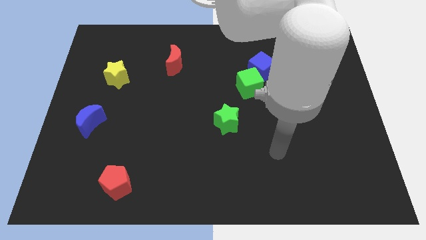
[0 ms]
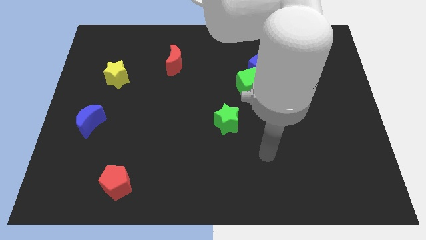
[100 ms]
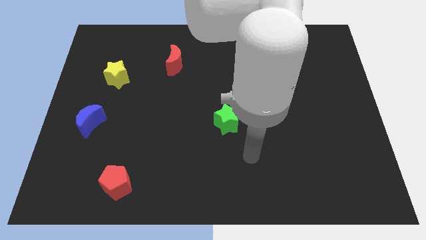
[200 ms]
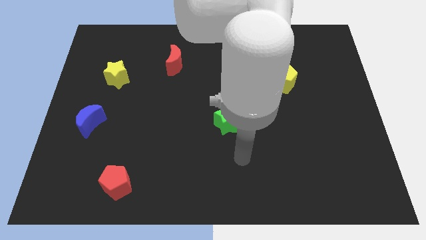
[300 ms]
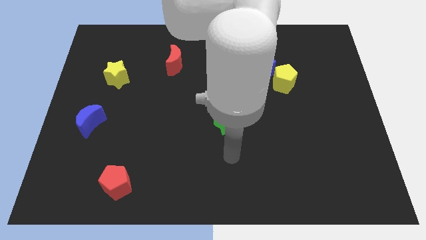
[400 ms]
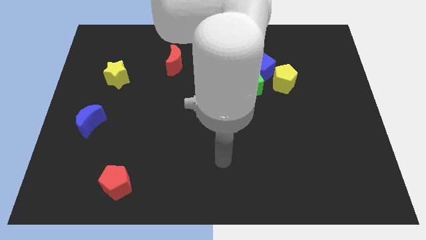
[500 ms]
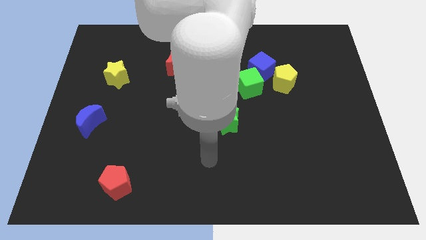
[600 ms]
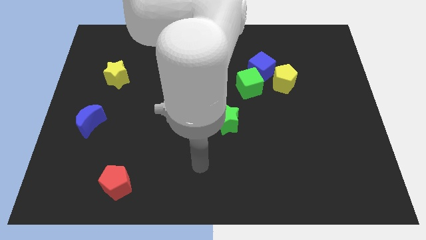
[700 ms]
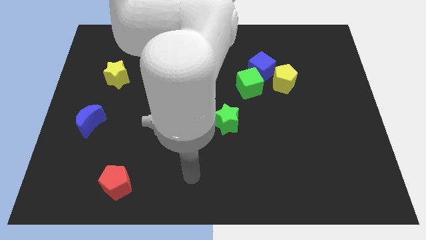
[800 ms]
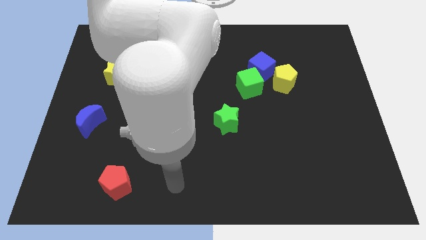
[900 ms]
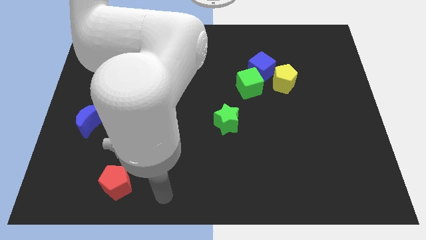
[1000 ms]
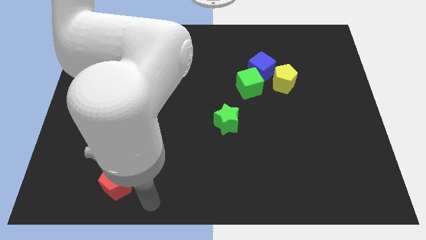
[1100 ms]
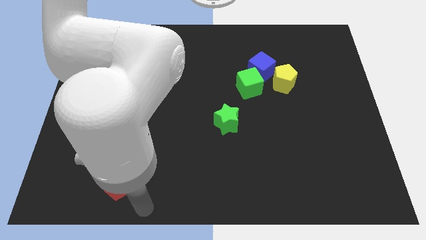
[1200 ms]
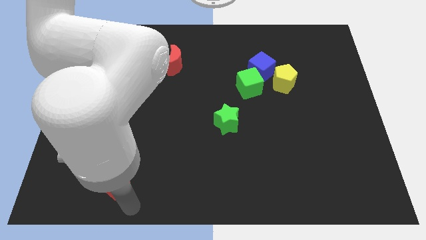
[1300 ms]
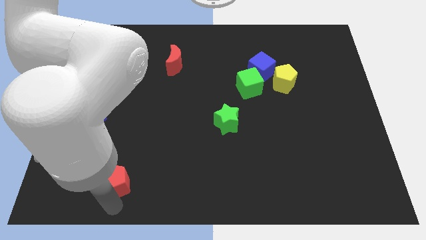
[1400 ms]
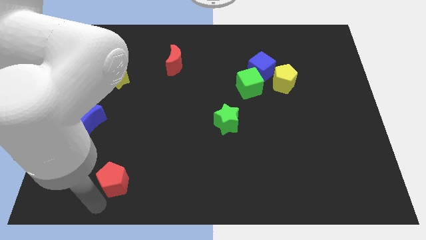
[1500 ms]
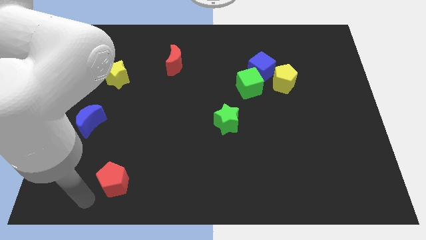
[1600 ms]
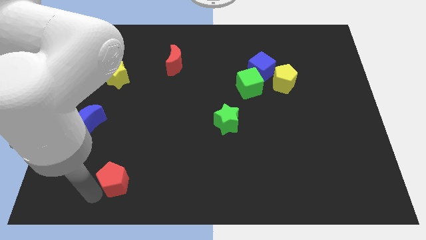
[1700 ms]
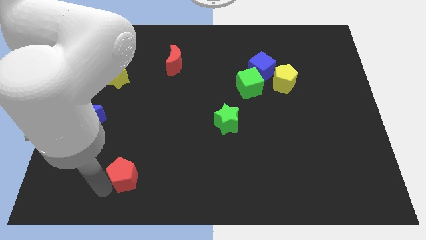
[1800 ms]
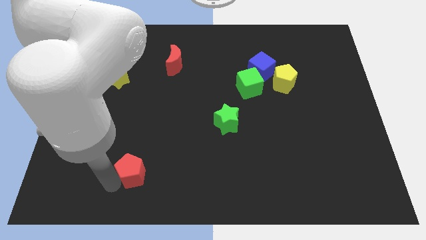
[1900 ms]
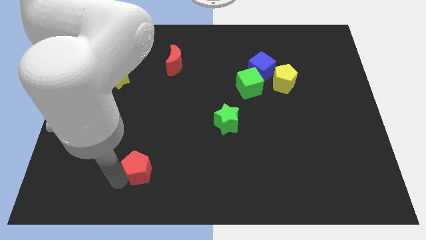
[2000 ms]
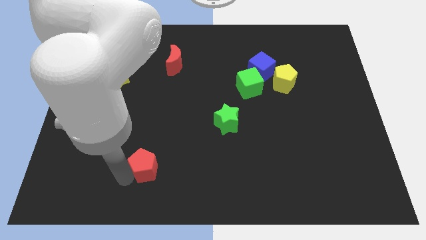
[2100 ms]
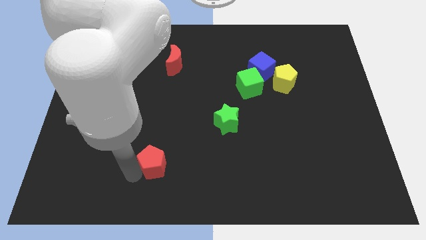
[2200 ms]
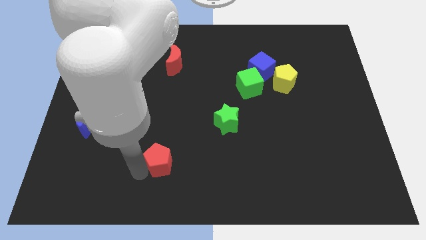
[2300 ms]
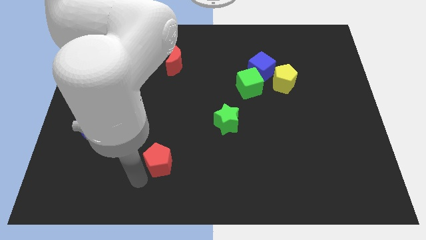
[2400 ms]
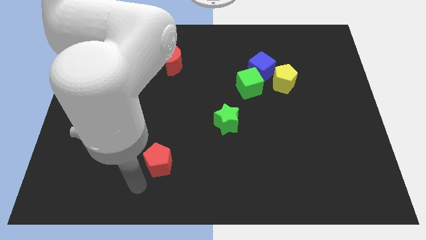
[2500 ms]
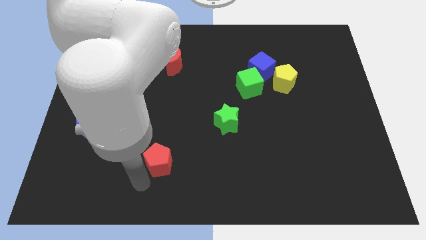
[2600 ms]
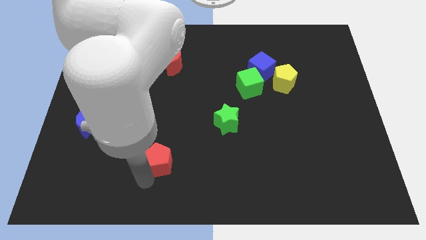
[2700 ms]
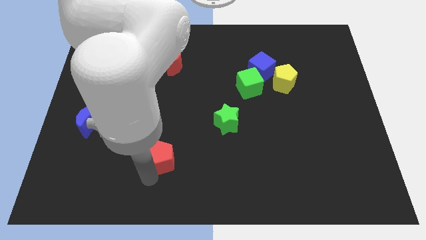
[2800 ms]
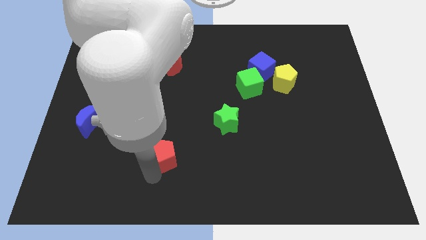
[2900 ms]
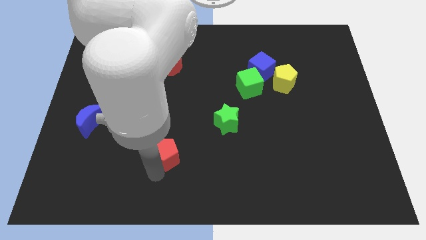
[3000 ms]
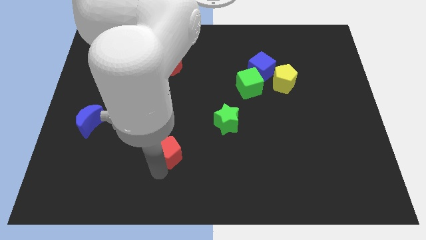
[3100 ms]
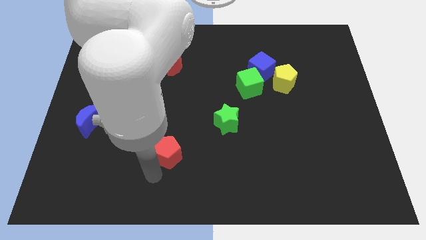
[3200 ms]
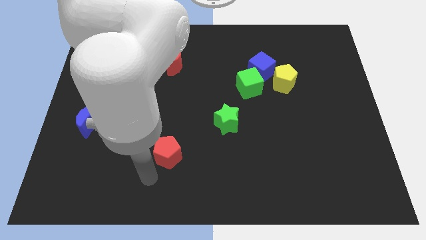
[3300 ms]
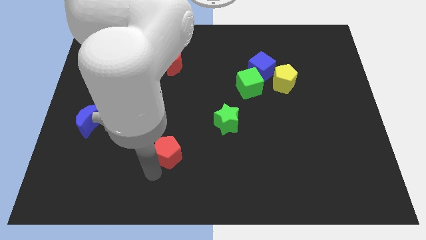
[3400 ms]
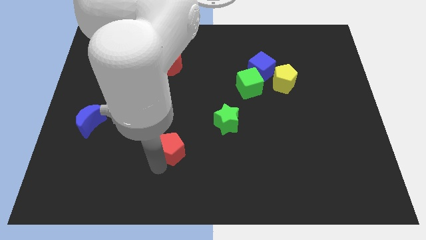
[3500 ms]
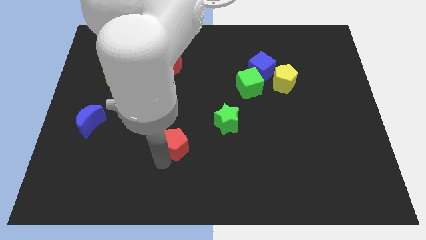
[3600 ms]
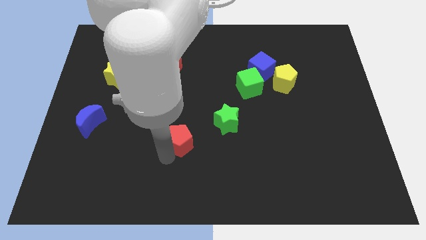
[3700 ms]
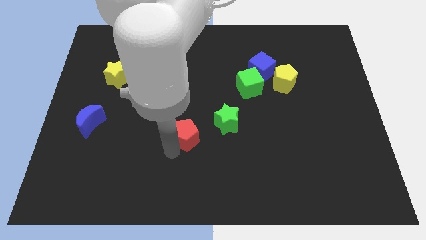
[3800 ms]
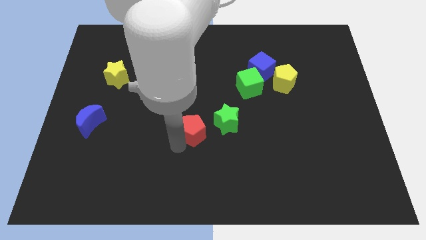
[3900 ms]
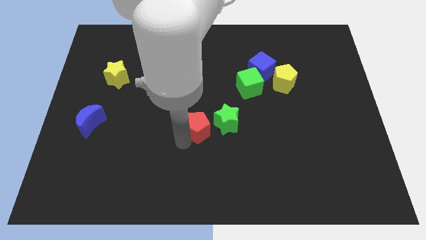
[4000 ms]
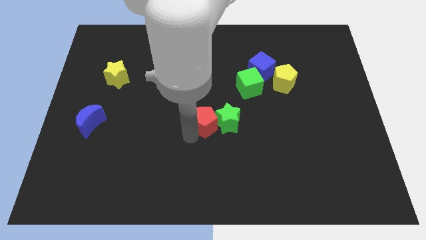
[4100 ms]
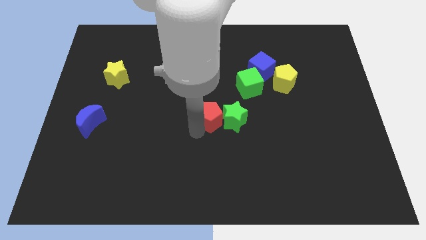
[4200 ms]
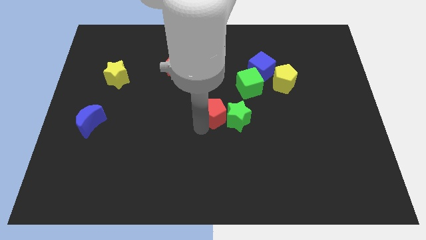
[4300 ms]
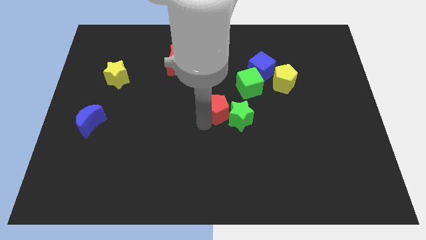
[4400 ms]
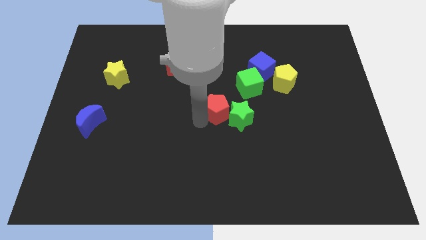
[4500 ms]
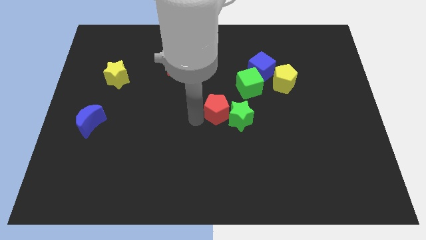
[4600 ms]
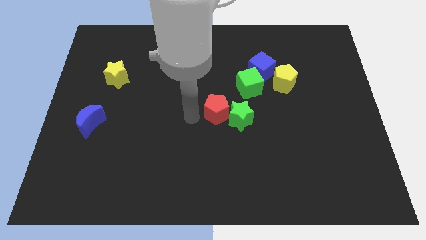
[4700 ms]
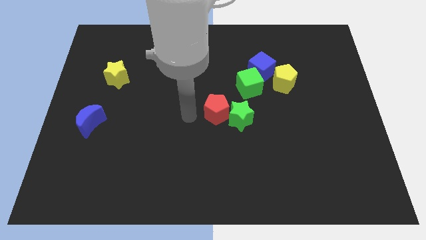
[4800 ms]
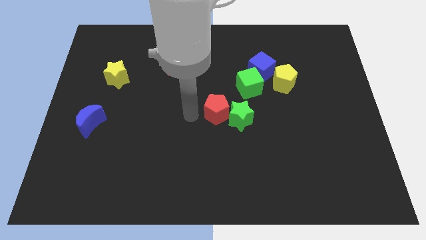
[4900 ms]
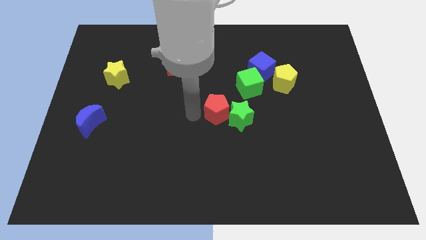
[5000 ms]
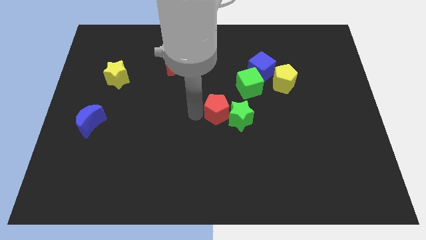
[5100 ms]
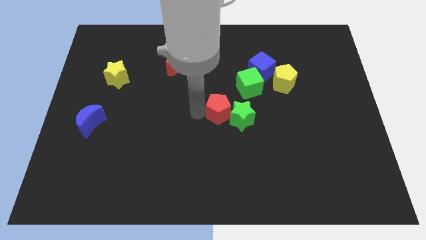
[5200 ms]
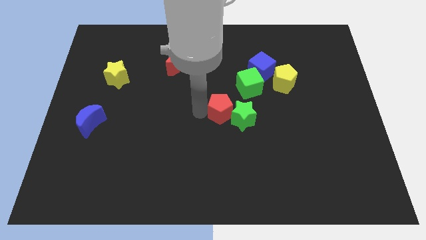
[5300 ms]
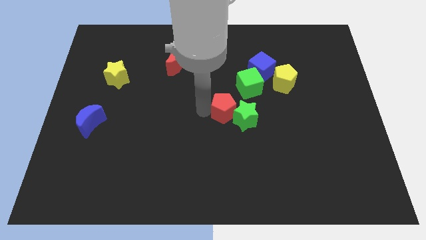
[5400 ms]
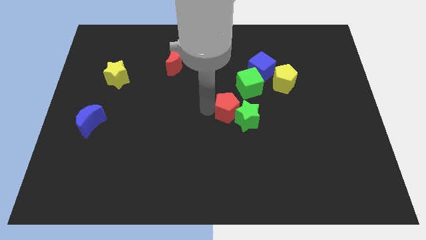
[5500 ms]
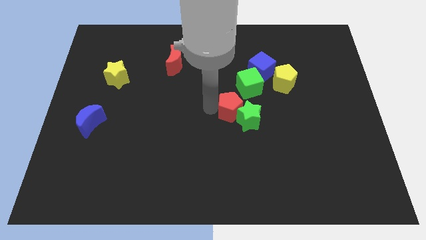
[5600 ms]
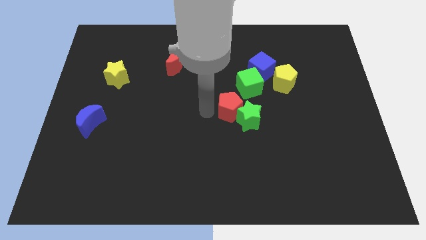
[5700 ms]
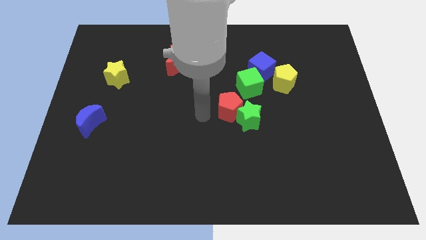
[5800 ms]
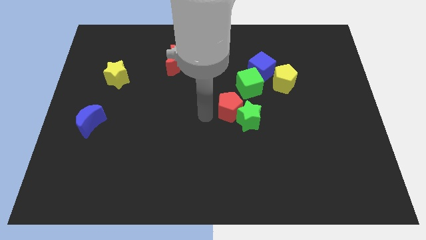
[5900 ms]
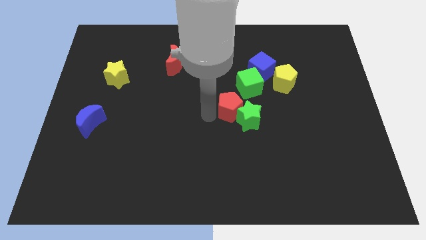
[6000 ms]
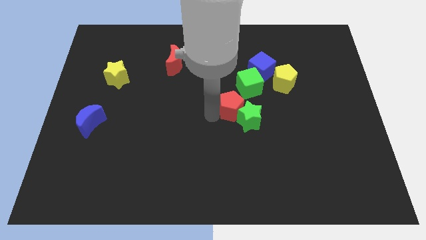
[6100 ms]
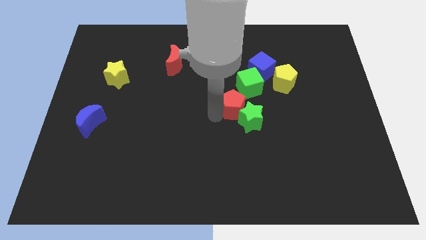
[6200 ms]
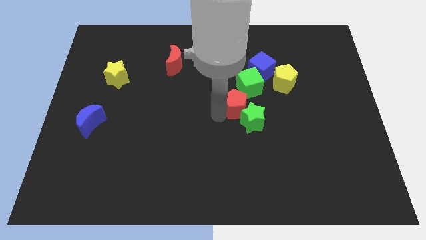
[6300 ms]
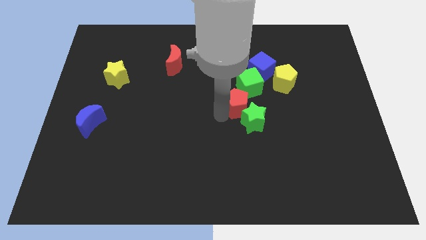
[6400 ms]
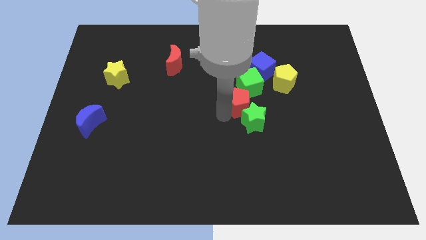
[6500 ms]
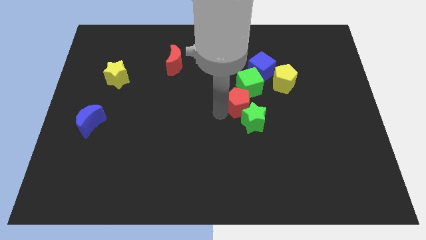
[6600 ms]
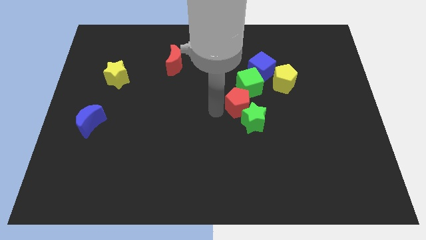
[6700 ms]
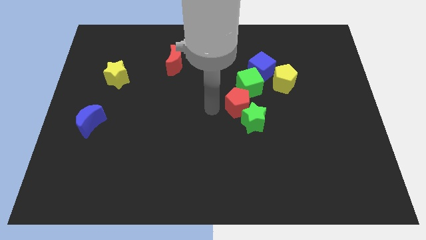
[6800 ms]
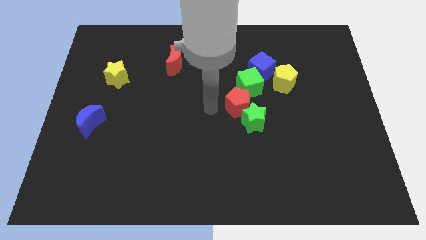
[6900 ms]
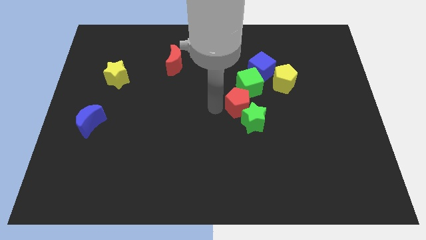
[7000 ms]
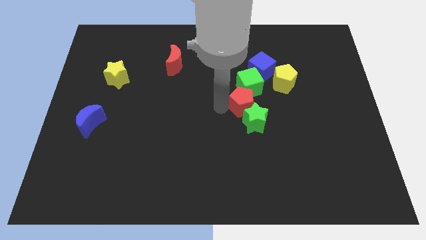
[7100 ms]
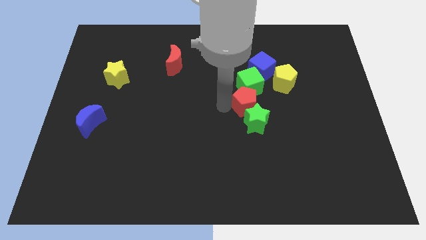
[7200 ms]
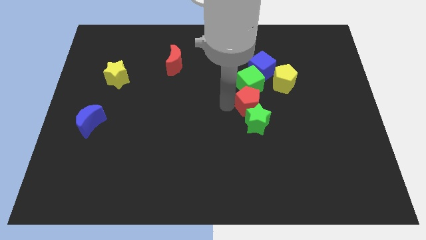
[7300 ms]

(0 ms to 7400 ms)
push the red pentagon to the bottom right side of the green cube
